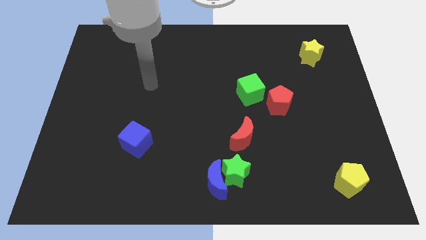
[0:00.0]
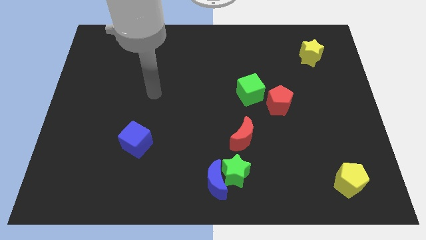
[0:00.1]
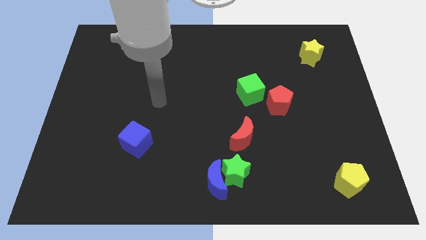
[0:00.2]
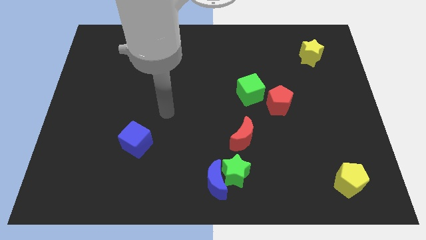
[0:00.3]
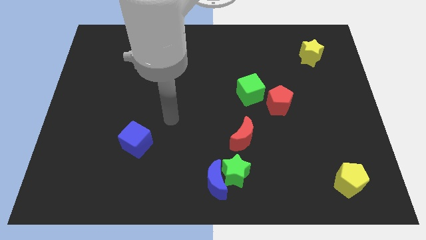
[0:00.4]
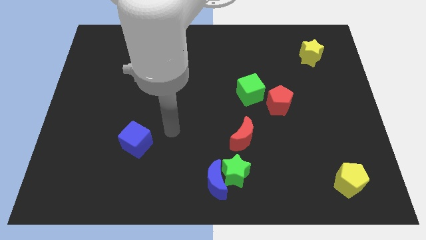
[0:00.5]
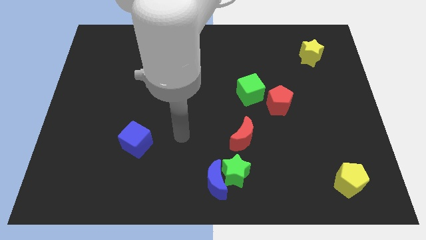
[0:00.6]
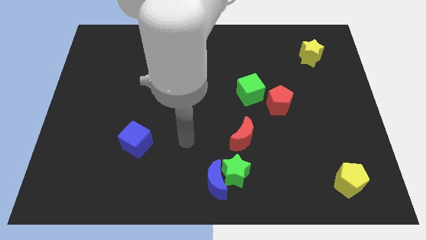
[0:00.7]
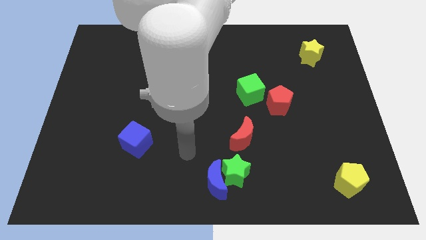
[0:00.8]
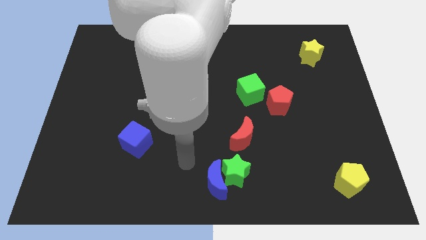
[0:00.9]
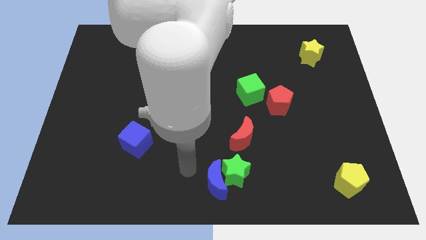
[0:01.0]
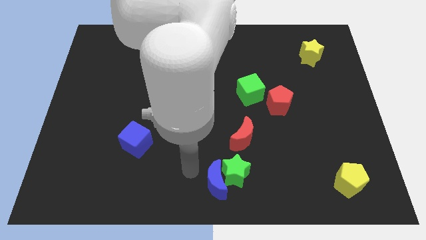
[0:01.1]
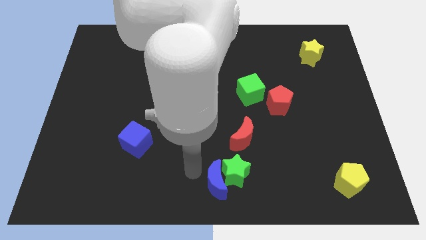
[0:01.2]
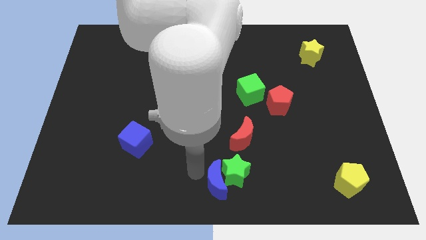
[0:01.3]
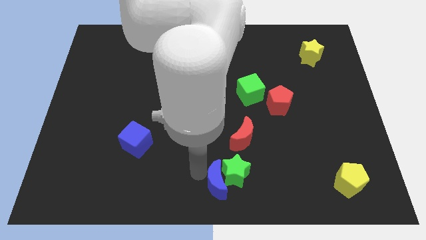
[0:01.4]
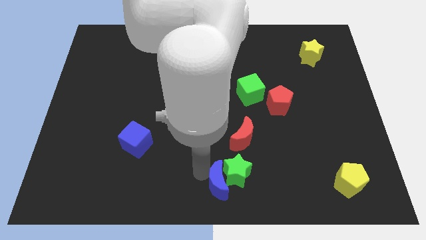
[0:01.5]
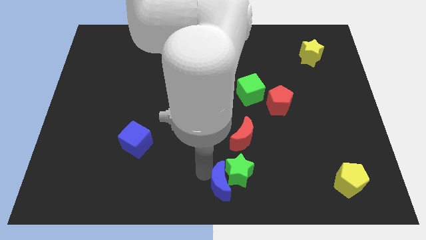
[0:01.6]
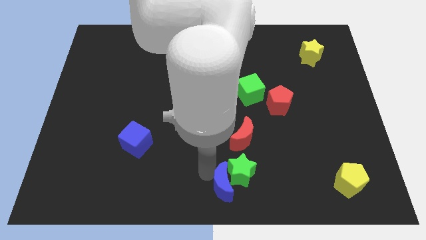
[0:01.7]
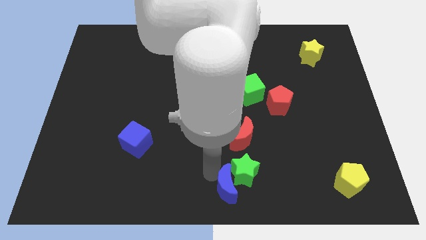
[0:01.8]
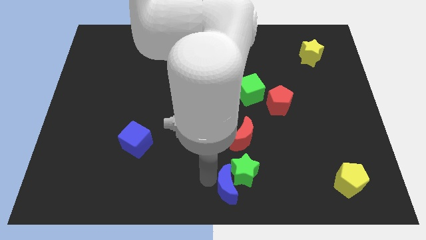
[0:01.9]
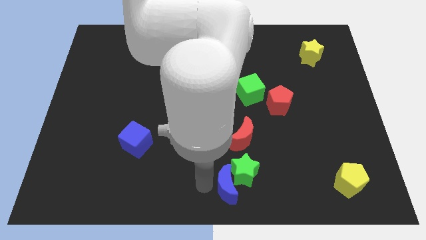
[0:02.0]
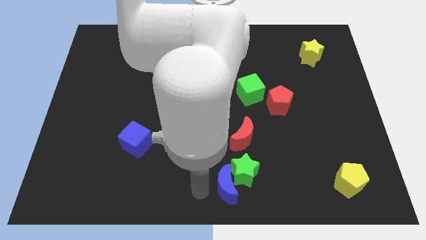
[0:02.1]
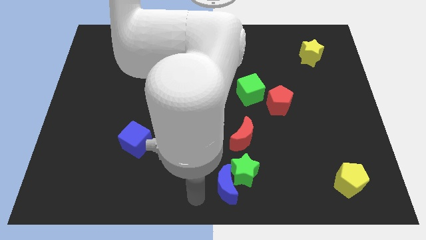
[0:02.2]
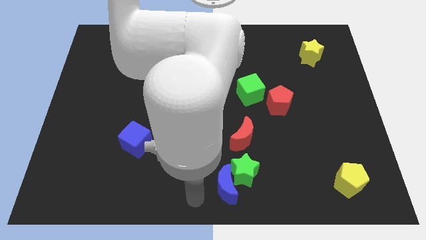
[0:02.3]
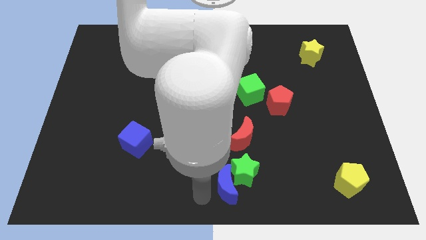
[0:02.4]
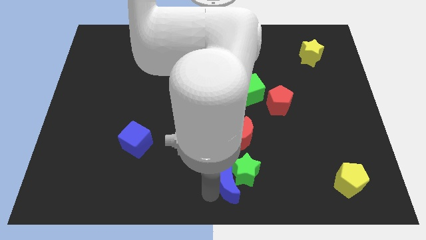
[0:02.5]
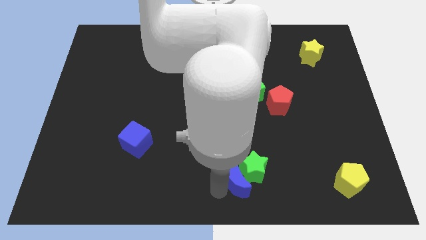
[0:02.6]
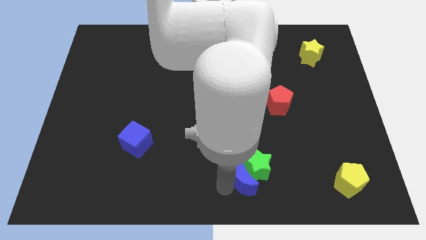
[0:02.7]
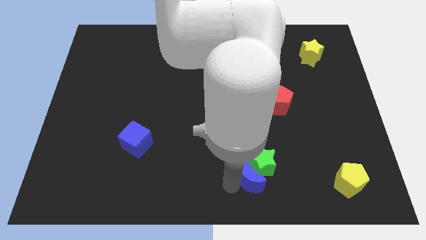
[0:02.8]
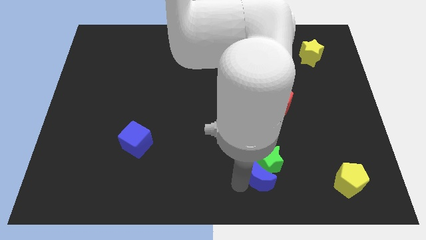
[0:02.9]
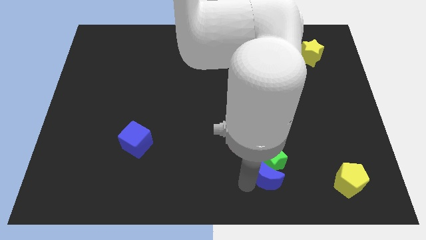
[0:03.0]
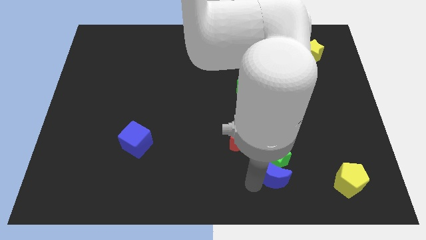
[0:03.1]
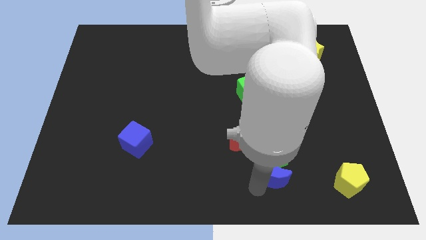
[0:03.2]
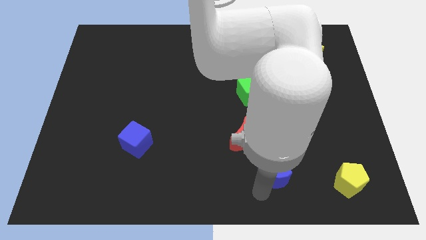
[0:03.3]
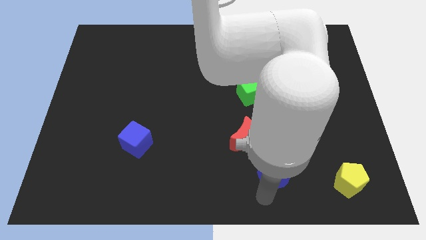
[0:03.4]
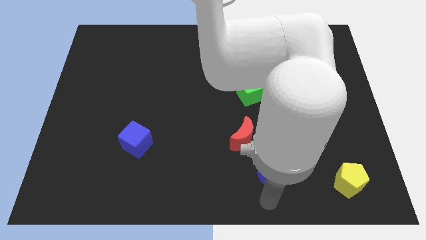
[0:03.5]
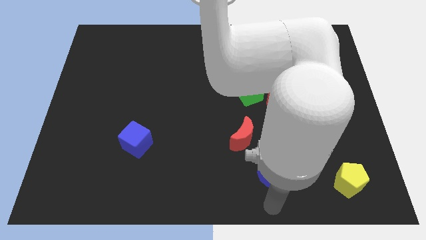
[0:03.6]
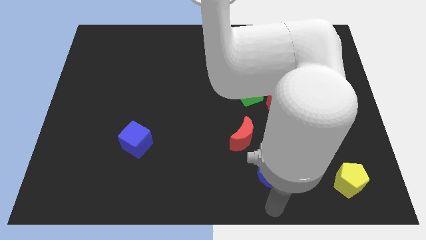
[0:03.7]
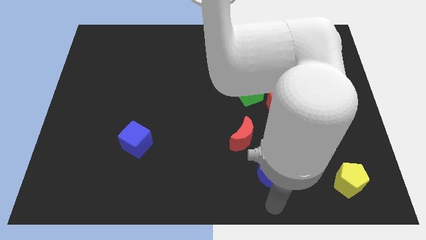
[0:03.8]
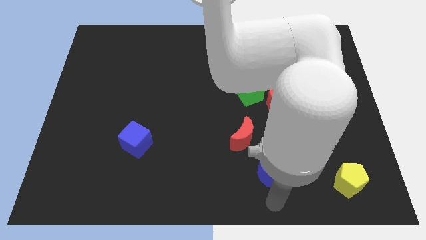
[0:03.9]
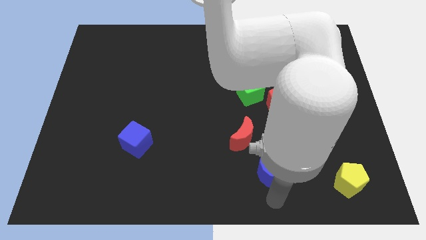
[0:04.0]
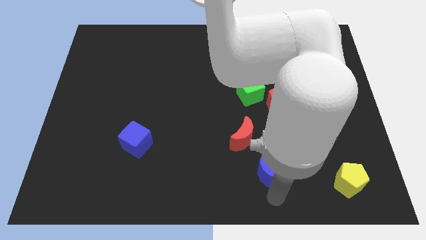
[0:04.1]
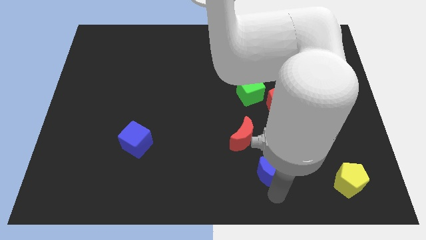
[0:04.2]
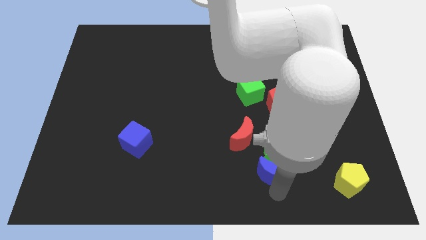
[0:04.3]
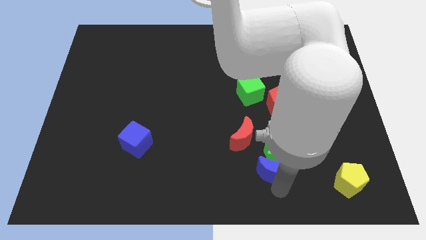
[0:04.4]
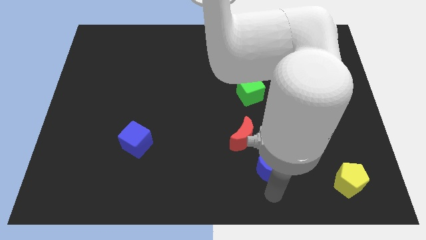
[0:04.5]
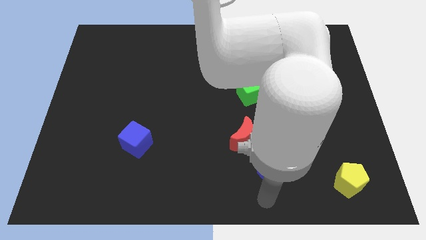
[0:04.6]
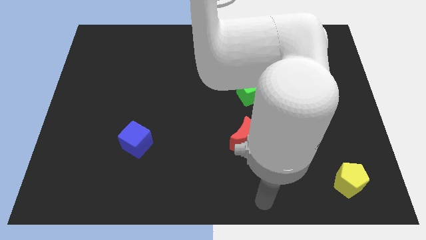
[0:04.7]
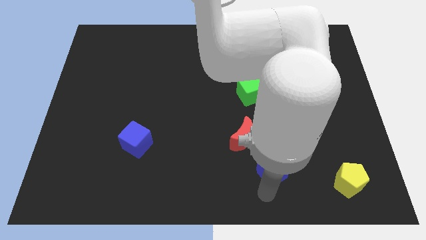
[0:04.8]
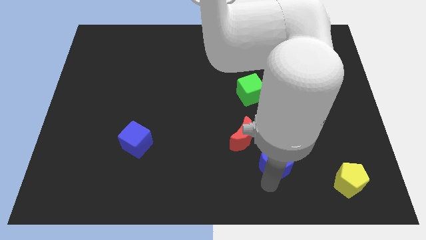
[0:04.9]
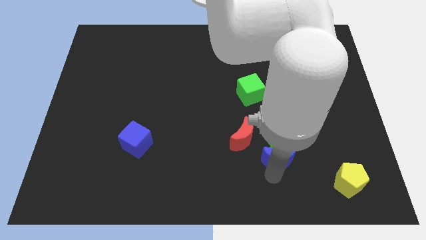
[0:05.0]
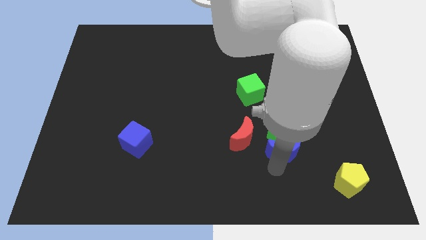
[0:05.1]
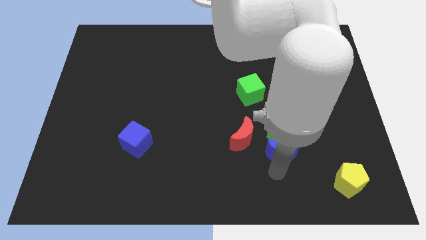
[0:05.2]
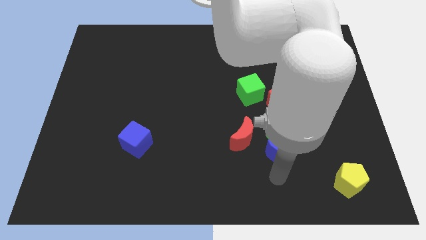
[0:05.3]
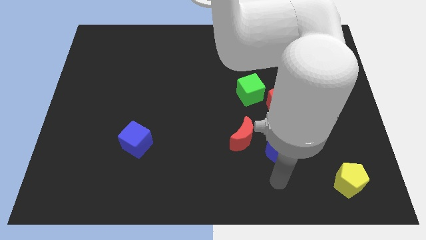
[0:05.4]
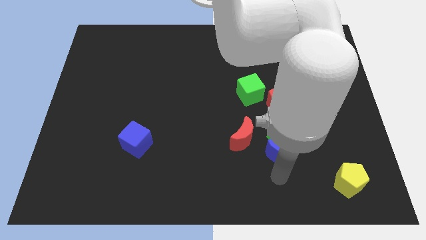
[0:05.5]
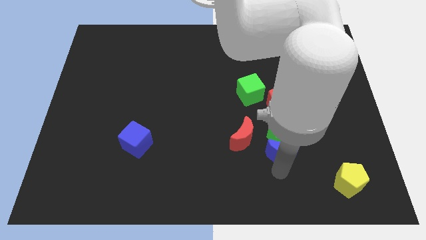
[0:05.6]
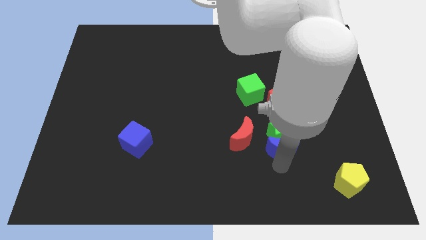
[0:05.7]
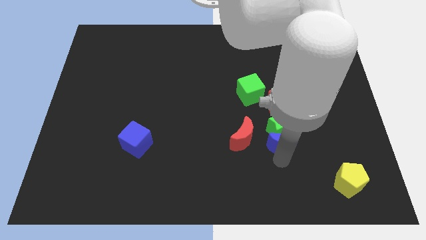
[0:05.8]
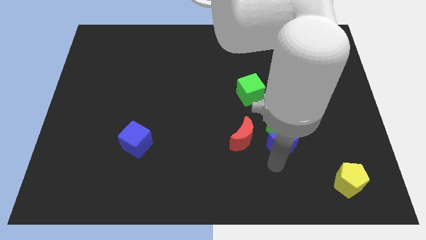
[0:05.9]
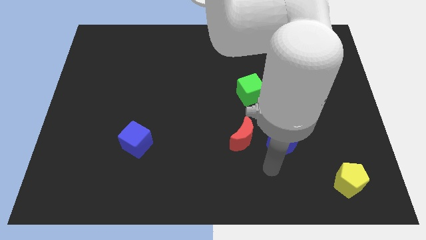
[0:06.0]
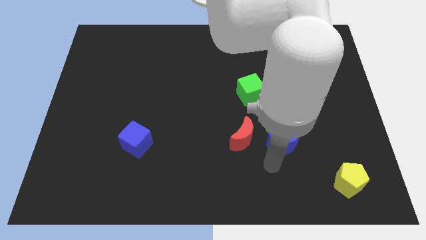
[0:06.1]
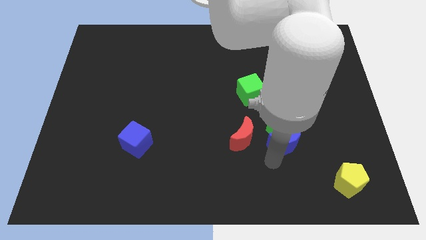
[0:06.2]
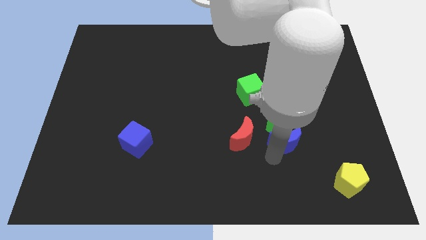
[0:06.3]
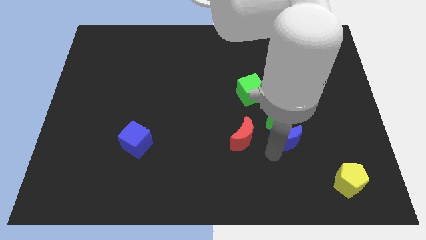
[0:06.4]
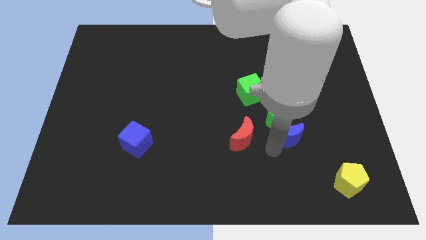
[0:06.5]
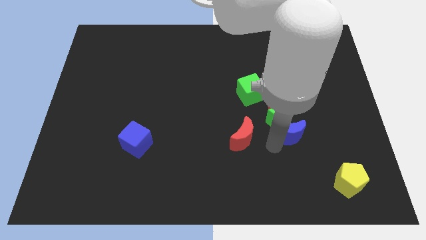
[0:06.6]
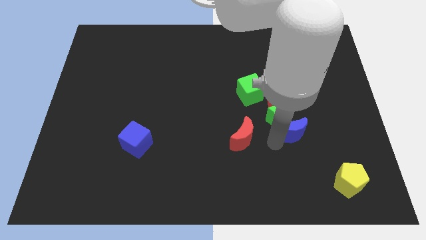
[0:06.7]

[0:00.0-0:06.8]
move the blue moon diagonally up and to the right

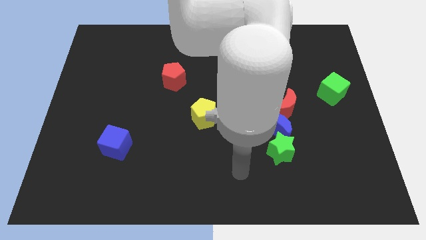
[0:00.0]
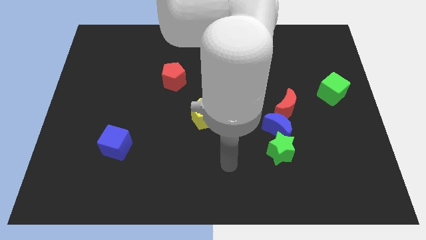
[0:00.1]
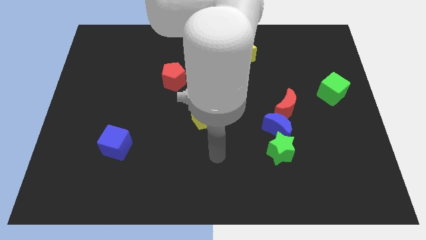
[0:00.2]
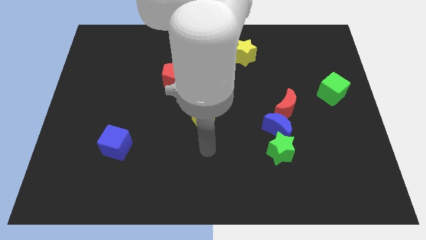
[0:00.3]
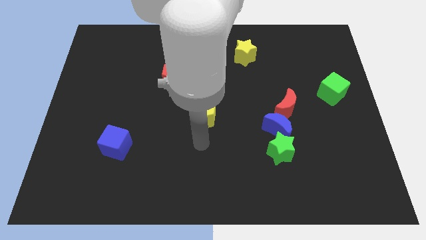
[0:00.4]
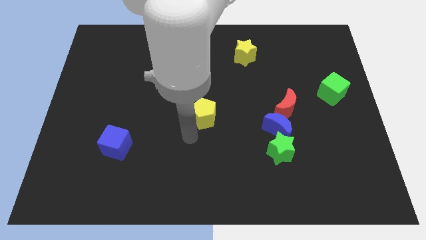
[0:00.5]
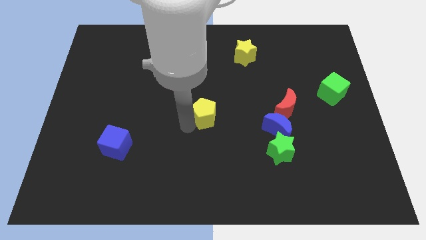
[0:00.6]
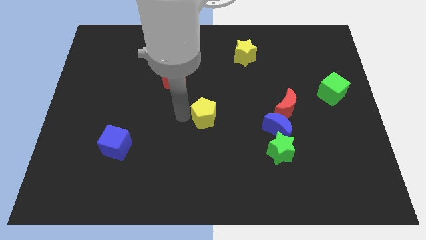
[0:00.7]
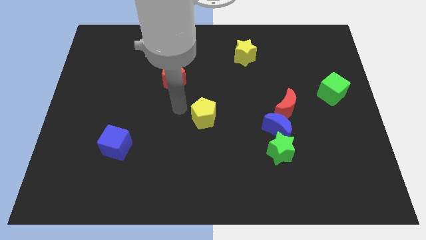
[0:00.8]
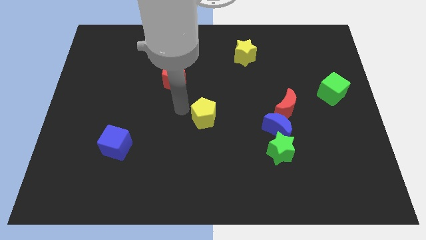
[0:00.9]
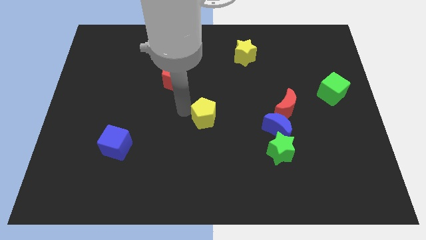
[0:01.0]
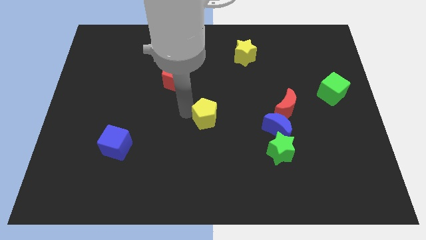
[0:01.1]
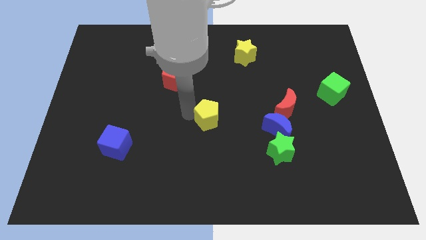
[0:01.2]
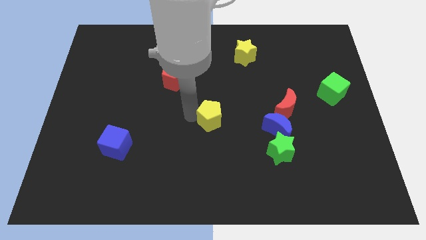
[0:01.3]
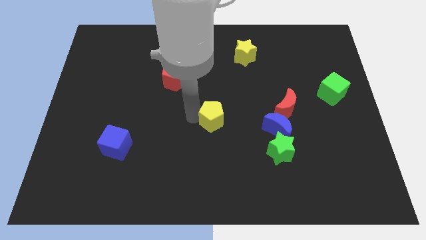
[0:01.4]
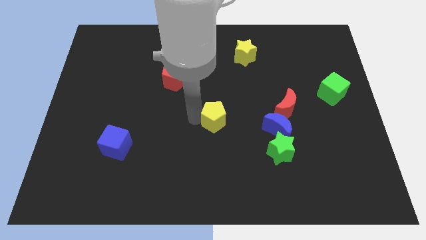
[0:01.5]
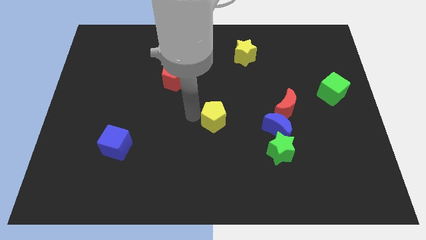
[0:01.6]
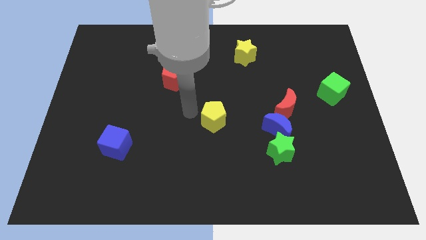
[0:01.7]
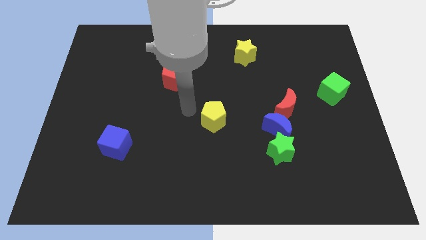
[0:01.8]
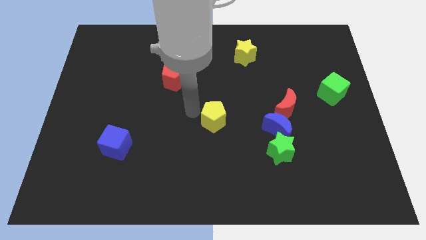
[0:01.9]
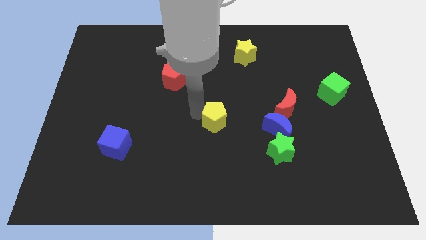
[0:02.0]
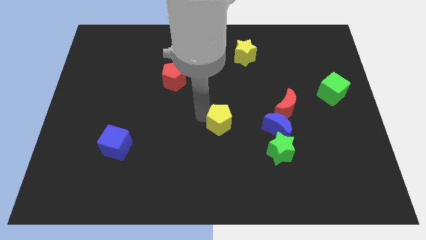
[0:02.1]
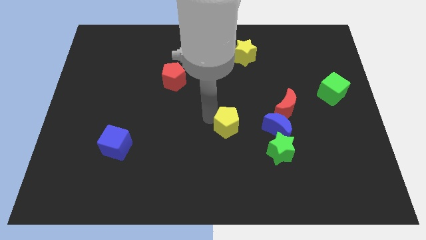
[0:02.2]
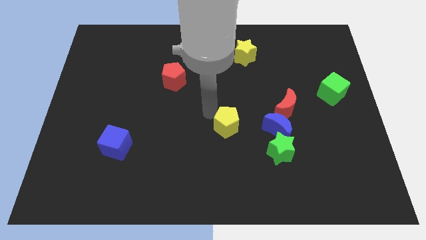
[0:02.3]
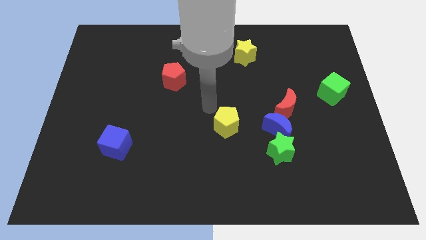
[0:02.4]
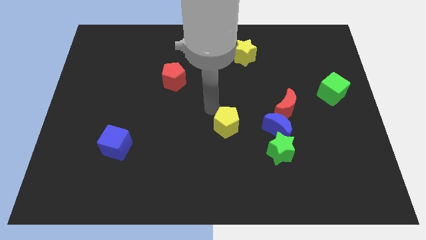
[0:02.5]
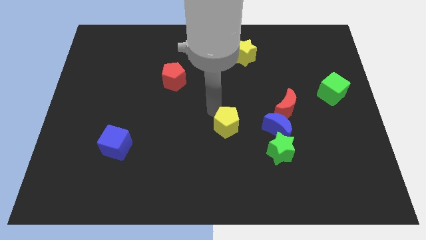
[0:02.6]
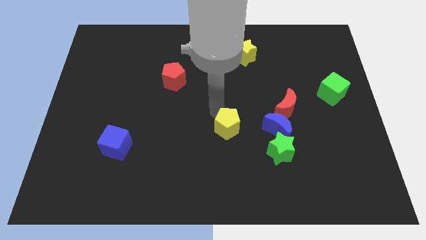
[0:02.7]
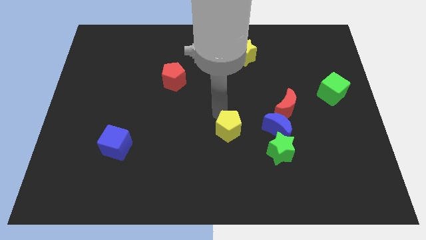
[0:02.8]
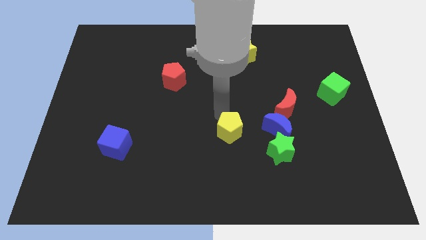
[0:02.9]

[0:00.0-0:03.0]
slide the yellow pentagon down and then right a little bit
